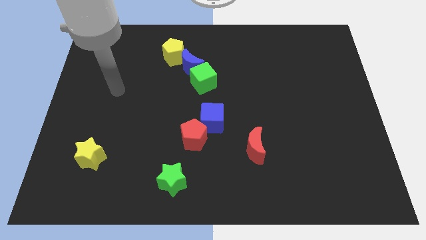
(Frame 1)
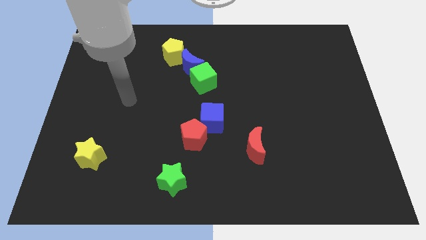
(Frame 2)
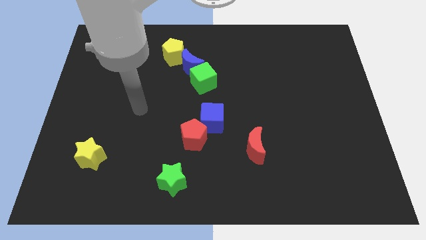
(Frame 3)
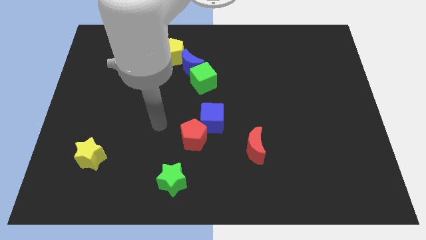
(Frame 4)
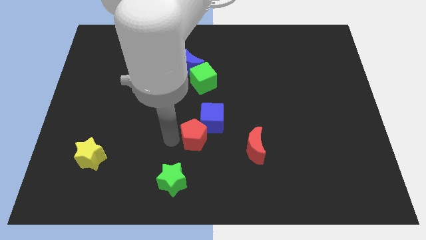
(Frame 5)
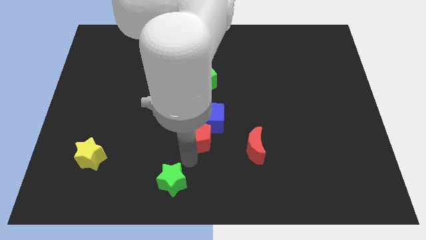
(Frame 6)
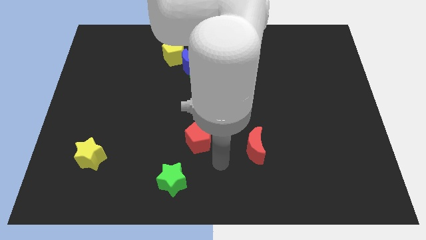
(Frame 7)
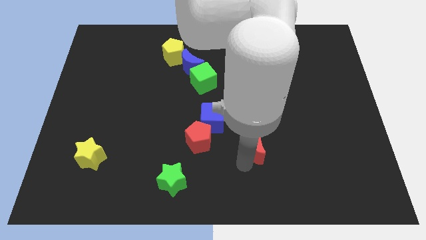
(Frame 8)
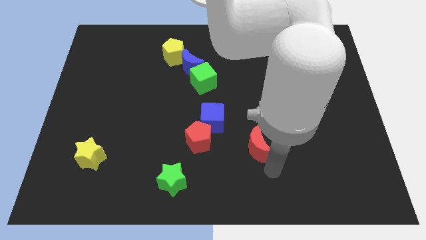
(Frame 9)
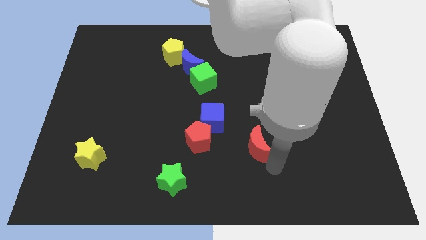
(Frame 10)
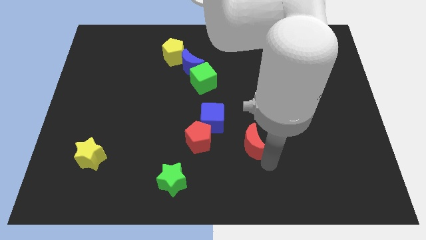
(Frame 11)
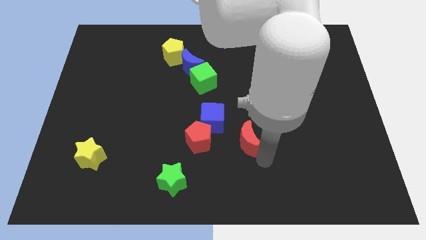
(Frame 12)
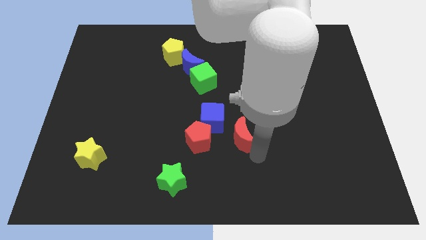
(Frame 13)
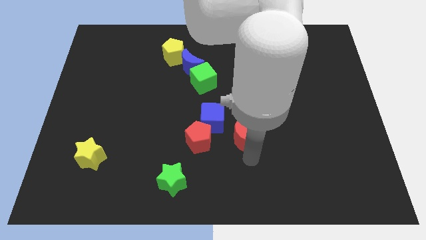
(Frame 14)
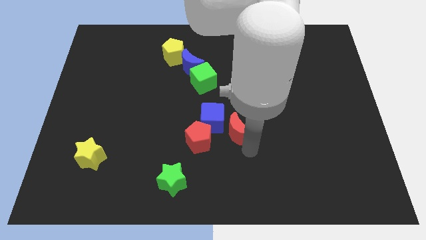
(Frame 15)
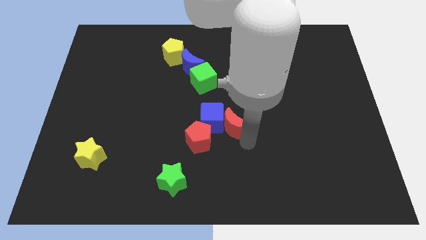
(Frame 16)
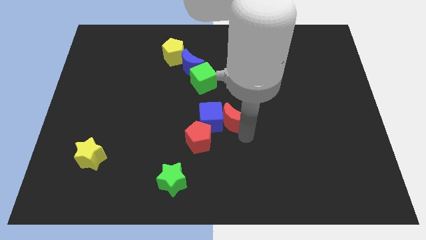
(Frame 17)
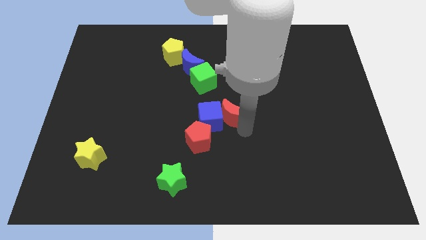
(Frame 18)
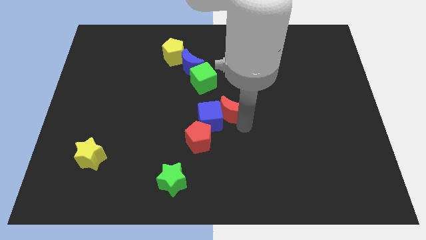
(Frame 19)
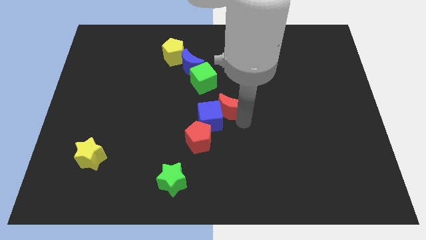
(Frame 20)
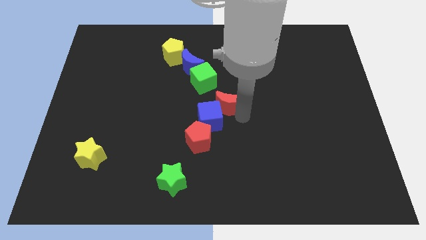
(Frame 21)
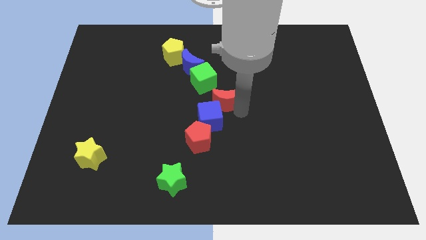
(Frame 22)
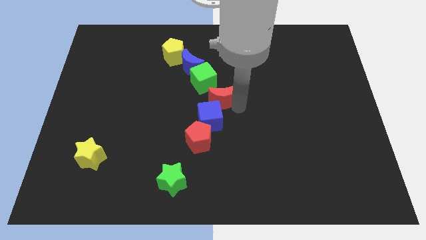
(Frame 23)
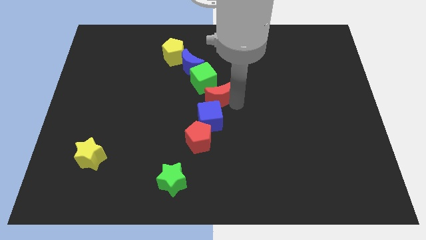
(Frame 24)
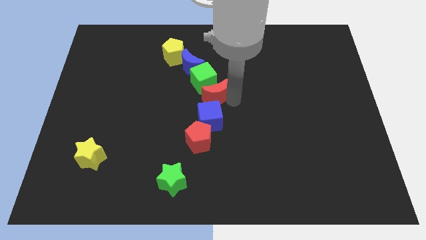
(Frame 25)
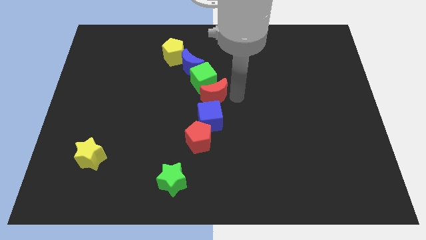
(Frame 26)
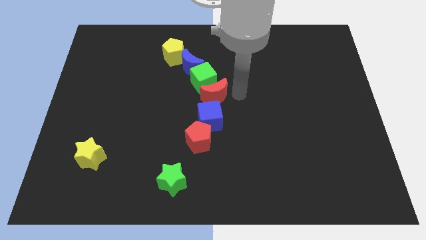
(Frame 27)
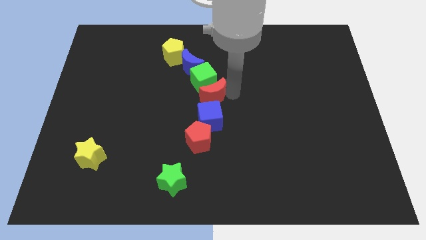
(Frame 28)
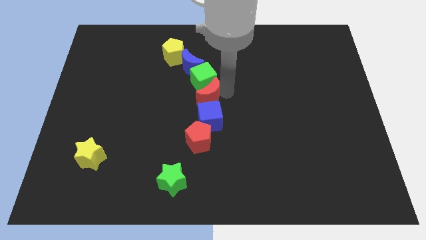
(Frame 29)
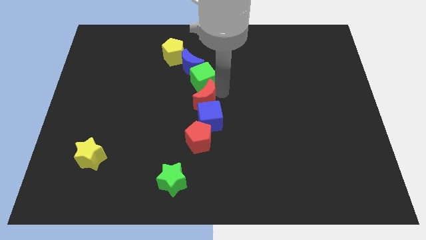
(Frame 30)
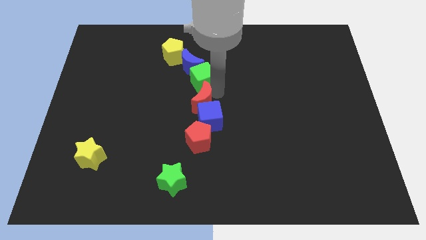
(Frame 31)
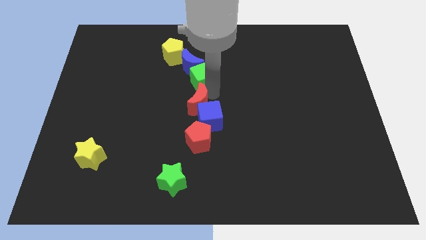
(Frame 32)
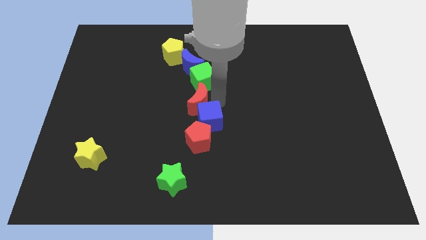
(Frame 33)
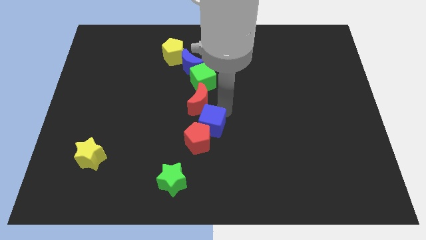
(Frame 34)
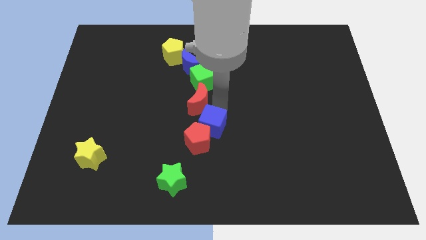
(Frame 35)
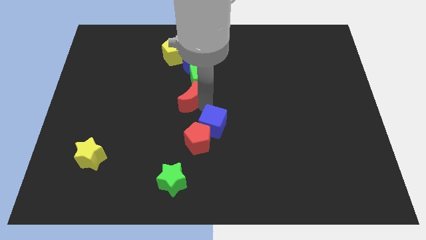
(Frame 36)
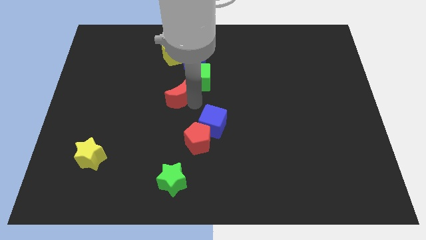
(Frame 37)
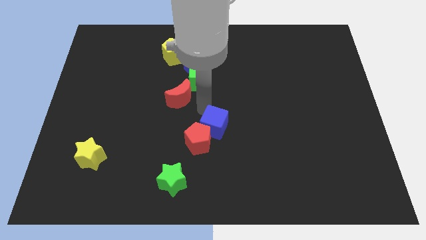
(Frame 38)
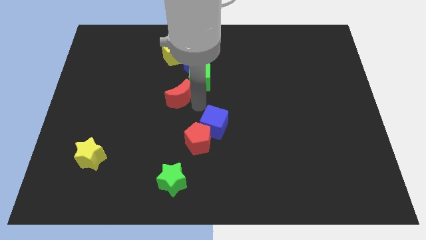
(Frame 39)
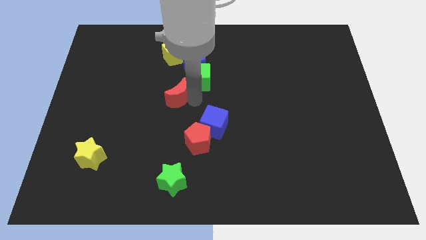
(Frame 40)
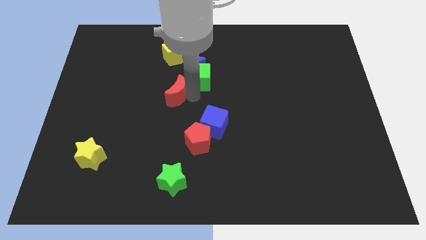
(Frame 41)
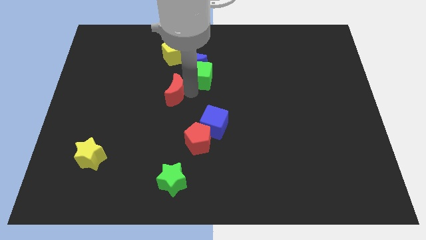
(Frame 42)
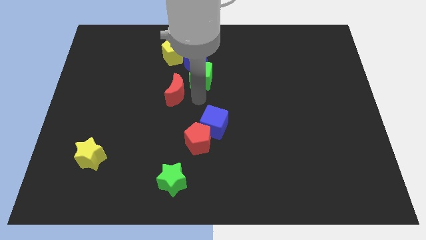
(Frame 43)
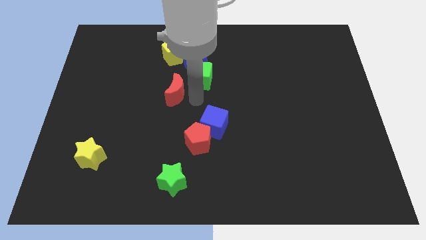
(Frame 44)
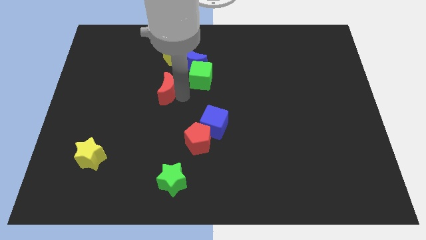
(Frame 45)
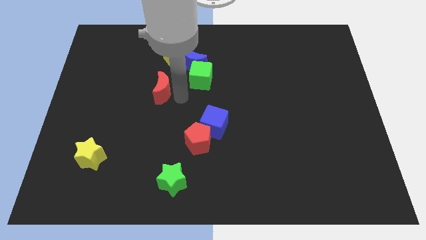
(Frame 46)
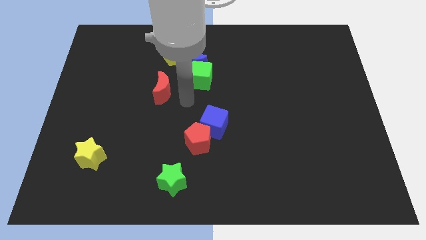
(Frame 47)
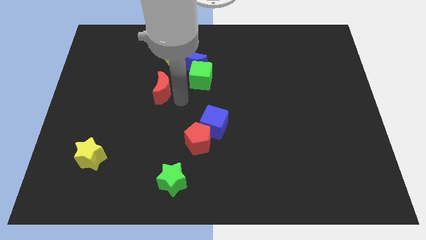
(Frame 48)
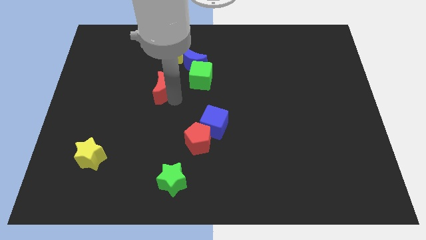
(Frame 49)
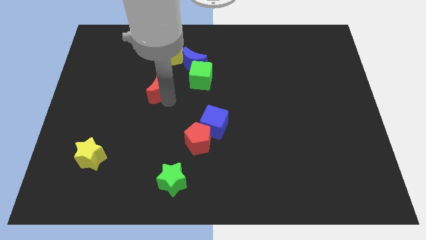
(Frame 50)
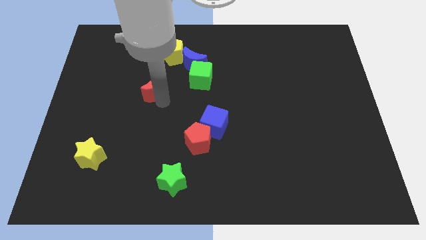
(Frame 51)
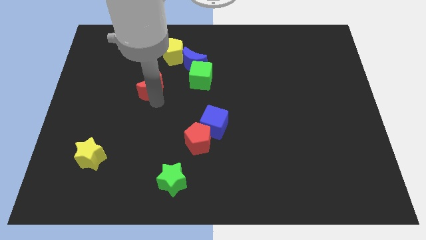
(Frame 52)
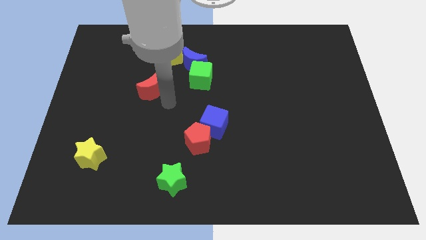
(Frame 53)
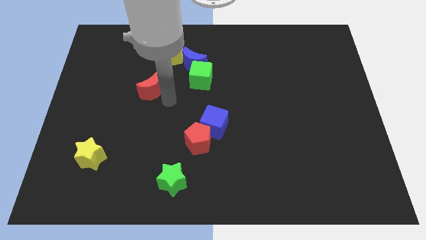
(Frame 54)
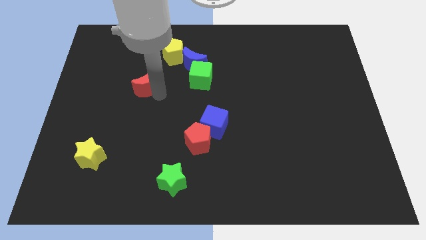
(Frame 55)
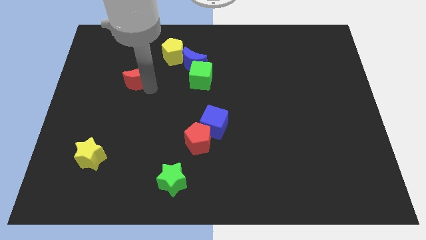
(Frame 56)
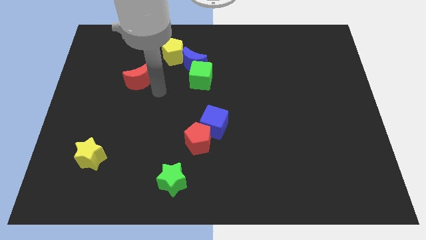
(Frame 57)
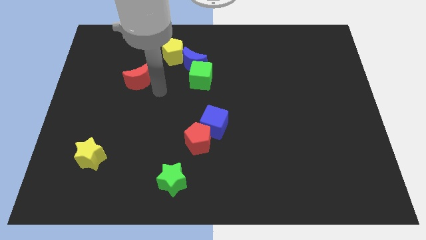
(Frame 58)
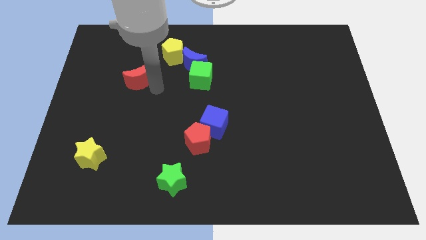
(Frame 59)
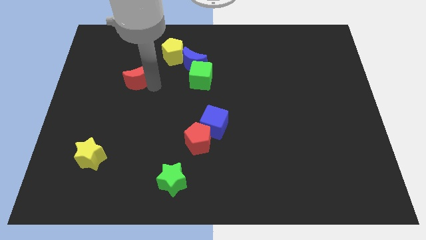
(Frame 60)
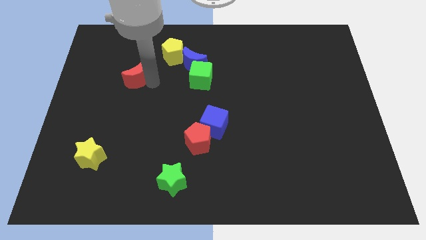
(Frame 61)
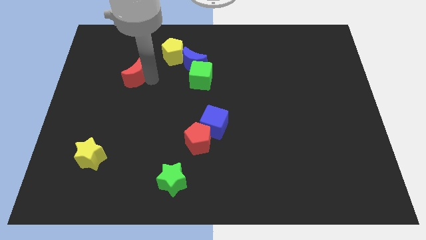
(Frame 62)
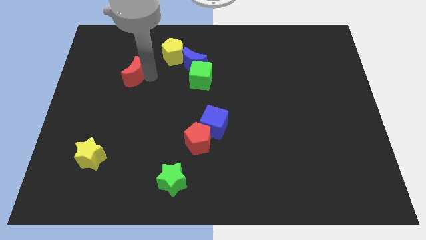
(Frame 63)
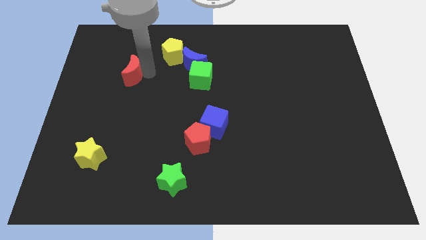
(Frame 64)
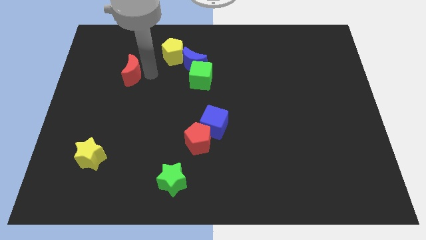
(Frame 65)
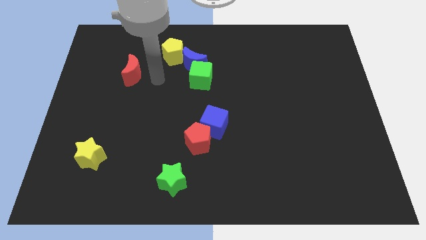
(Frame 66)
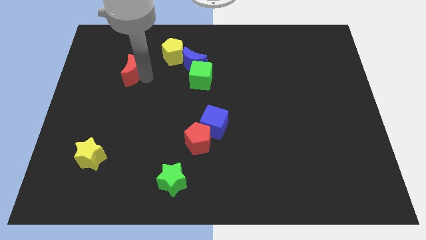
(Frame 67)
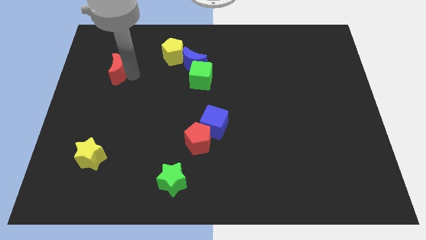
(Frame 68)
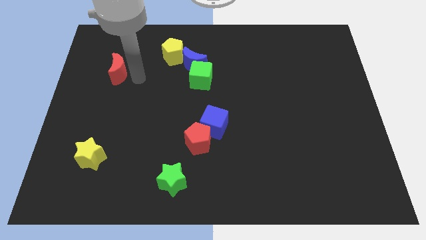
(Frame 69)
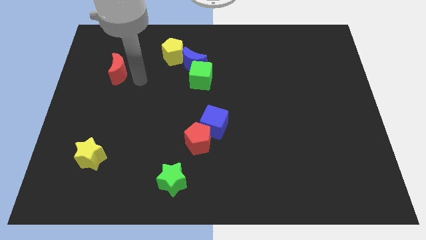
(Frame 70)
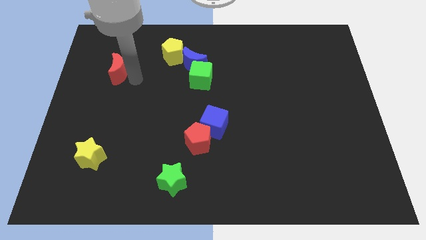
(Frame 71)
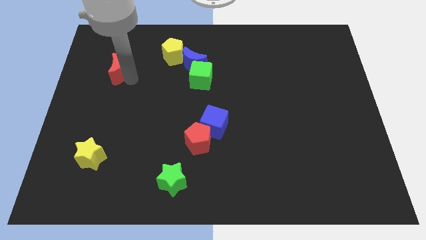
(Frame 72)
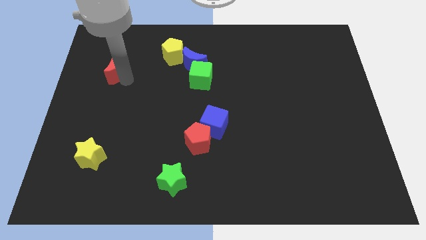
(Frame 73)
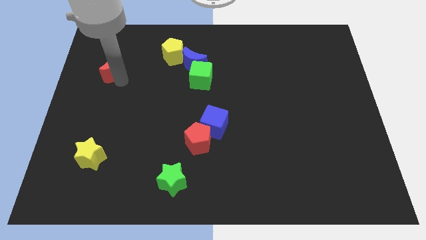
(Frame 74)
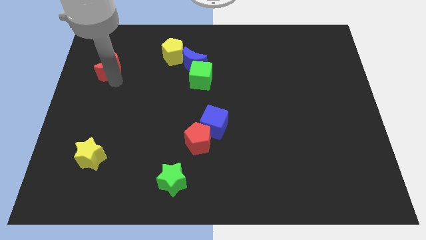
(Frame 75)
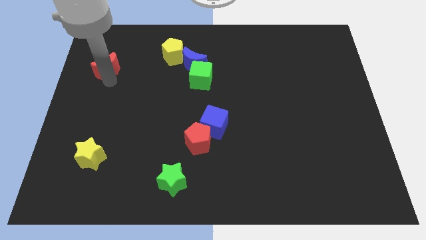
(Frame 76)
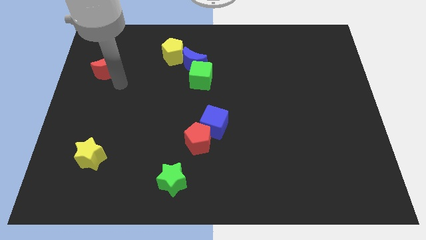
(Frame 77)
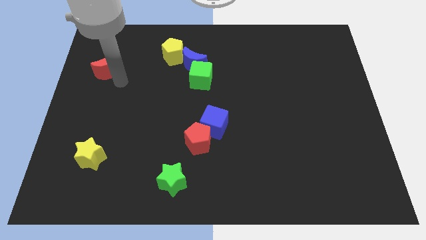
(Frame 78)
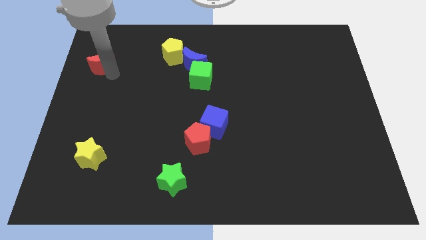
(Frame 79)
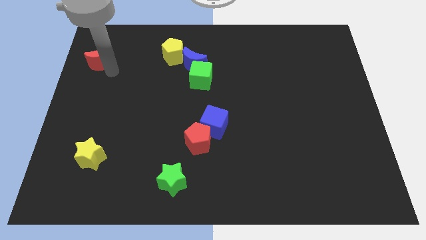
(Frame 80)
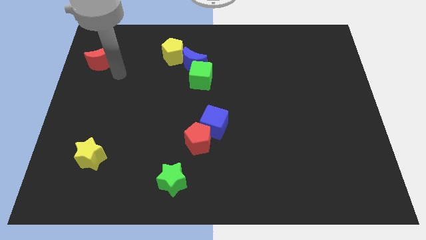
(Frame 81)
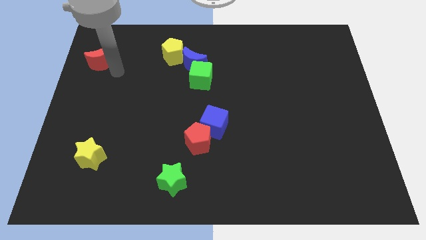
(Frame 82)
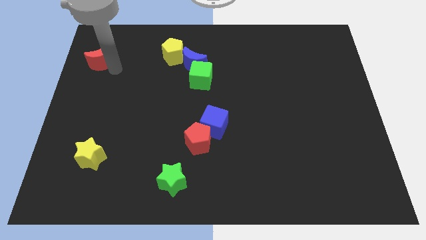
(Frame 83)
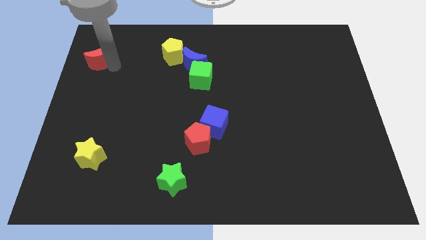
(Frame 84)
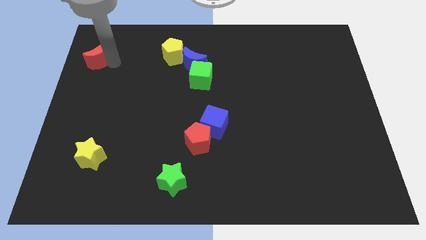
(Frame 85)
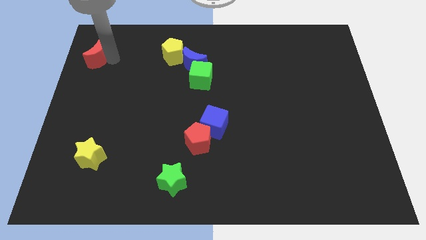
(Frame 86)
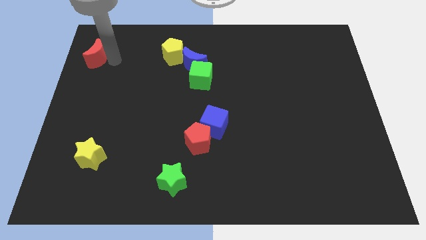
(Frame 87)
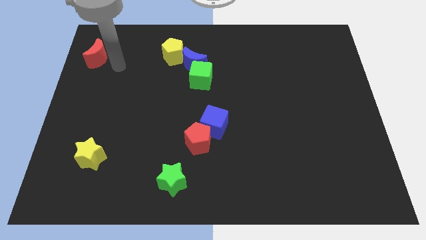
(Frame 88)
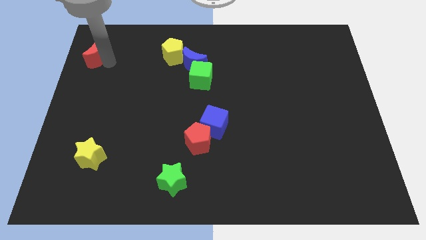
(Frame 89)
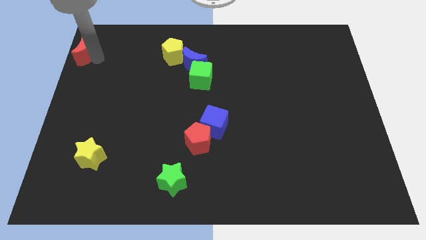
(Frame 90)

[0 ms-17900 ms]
push the red moon to the upper left corner
